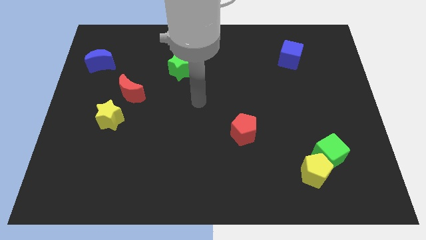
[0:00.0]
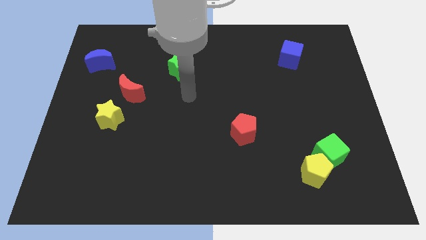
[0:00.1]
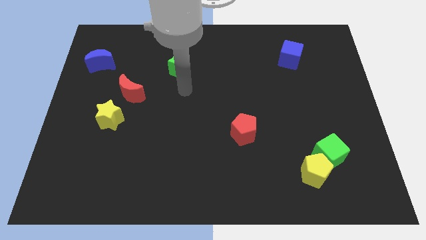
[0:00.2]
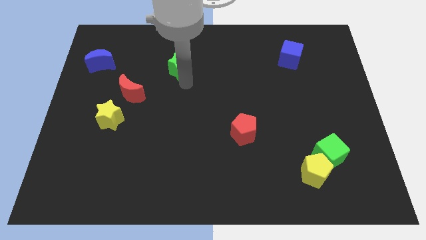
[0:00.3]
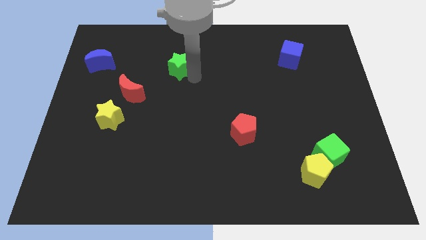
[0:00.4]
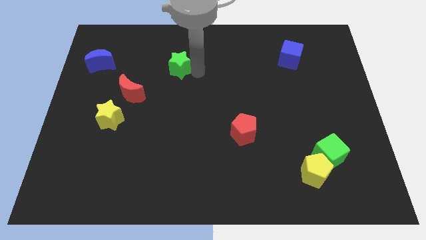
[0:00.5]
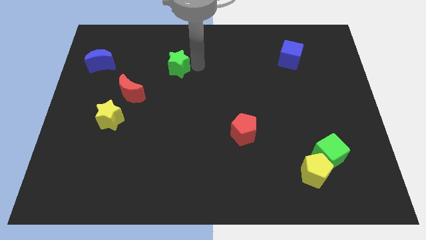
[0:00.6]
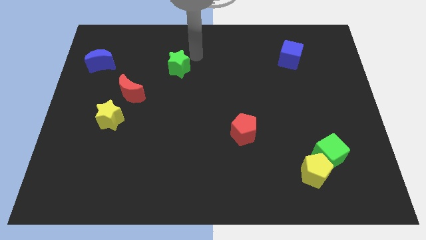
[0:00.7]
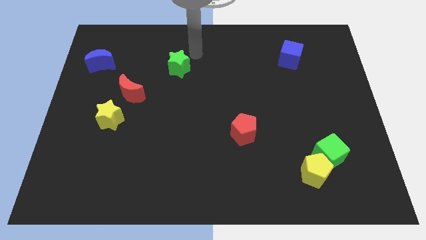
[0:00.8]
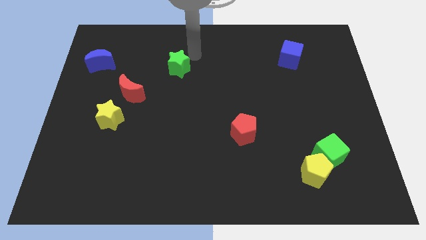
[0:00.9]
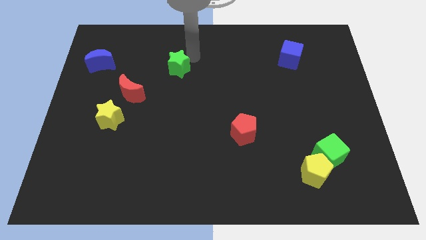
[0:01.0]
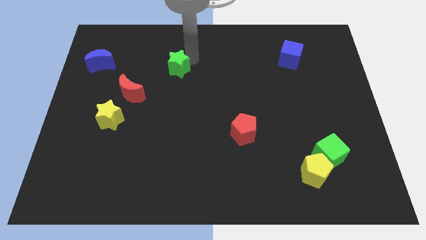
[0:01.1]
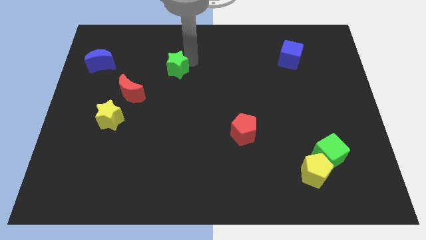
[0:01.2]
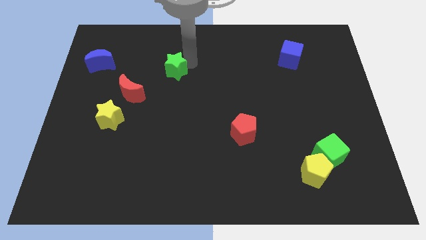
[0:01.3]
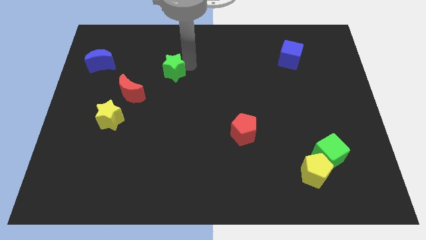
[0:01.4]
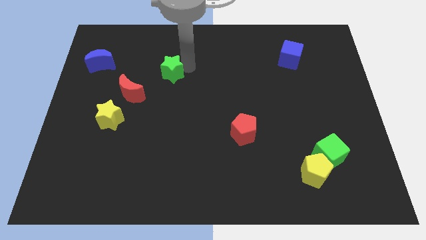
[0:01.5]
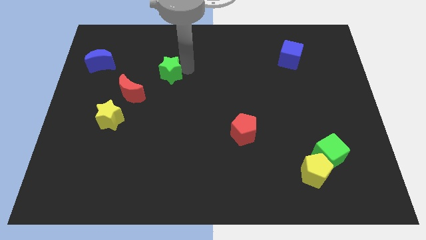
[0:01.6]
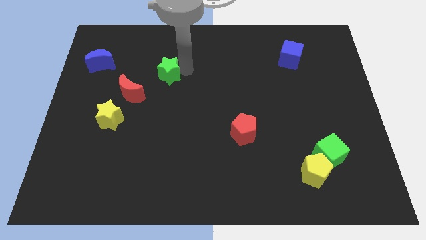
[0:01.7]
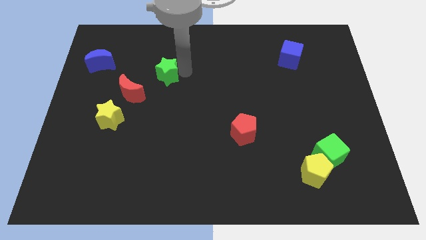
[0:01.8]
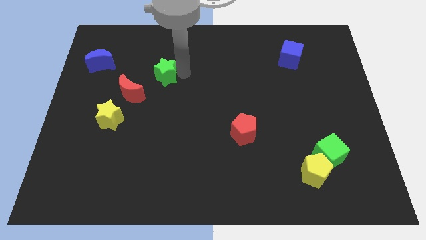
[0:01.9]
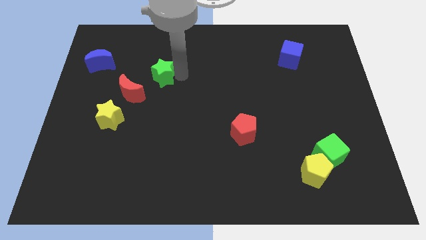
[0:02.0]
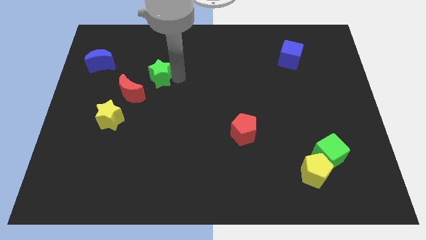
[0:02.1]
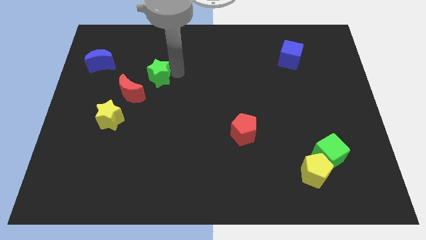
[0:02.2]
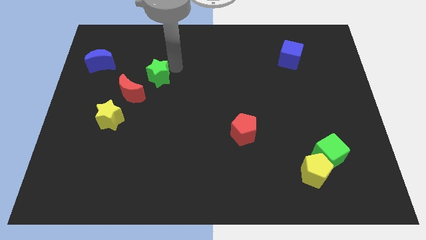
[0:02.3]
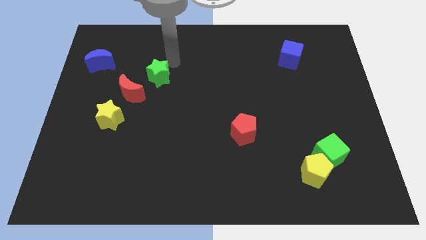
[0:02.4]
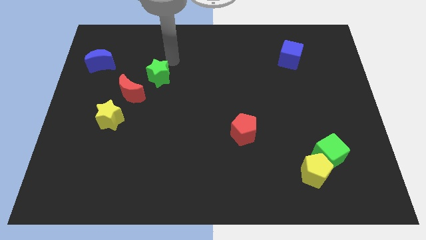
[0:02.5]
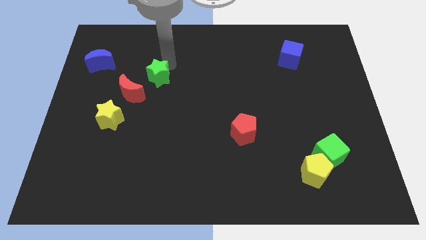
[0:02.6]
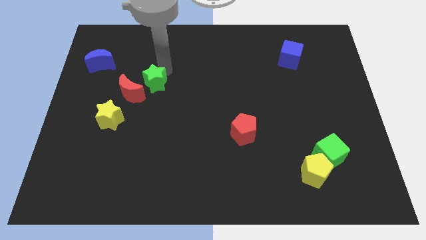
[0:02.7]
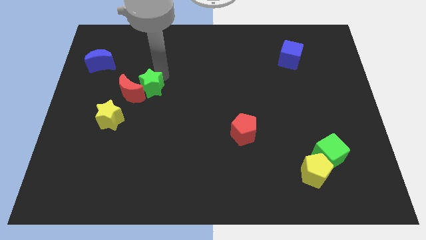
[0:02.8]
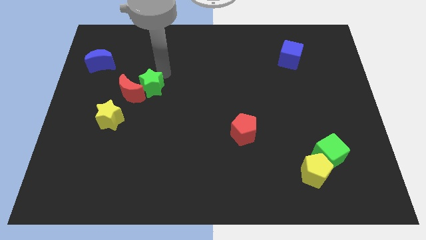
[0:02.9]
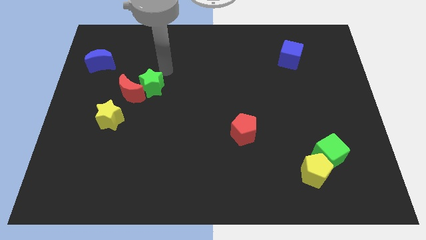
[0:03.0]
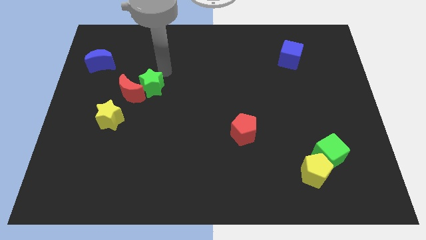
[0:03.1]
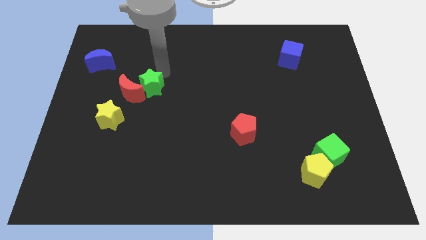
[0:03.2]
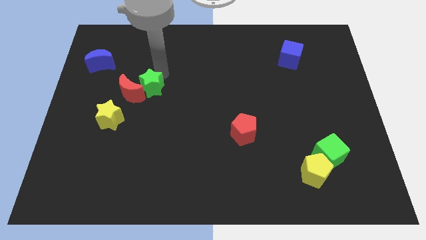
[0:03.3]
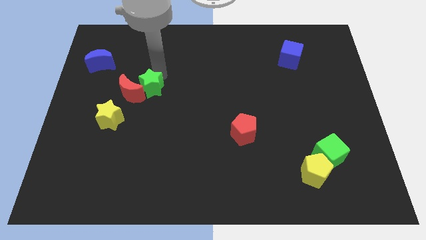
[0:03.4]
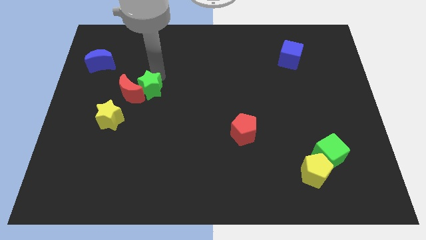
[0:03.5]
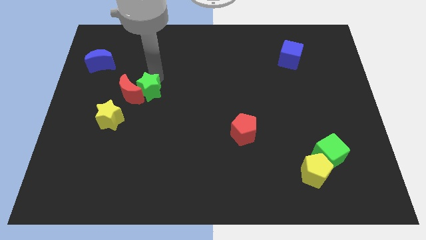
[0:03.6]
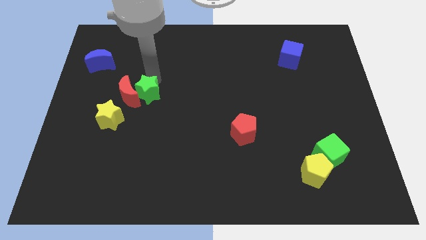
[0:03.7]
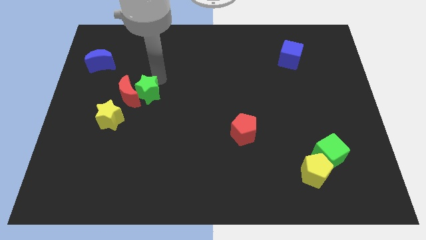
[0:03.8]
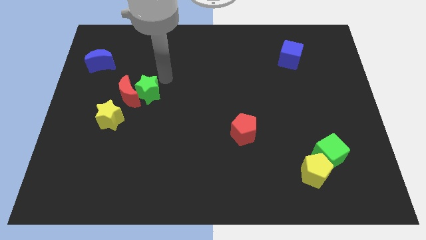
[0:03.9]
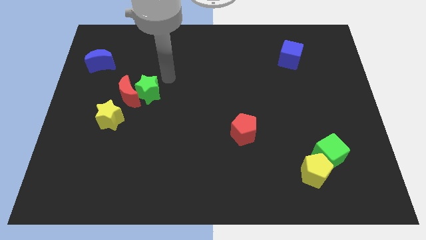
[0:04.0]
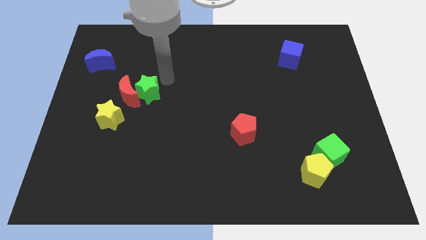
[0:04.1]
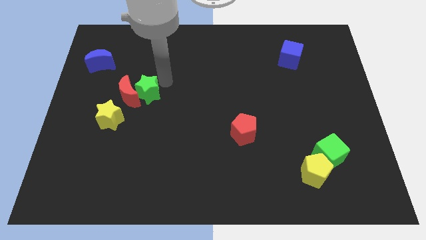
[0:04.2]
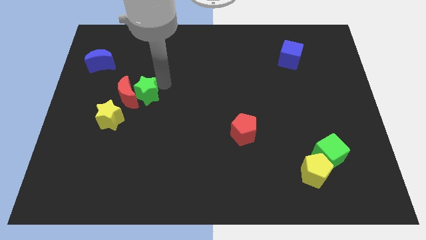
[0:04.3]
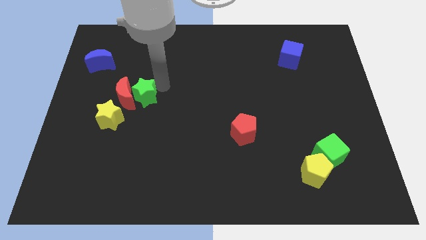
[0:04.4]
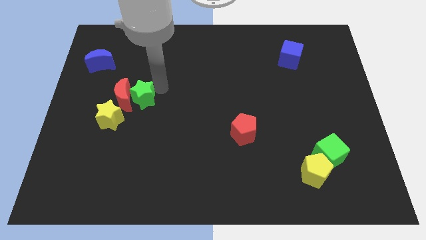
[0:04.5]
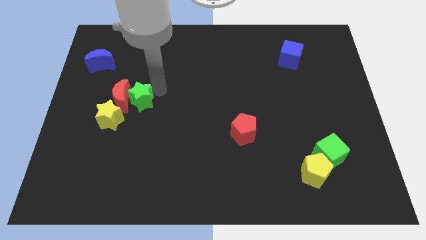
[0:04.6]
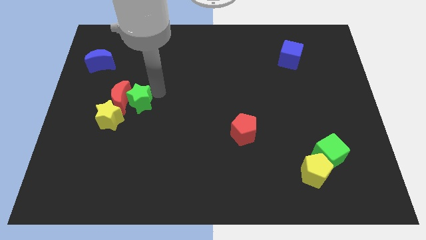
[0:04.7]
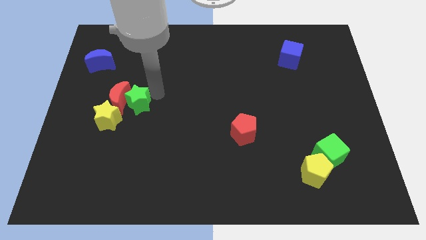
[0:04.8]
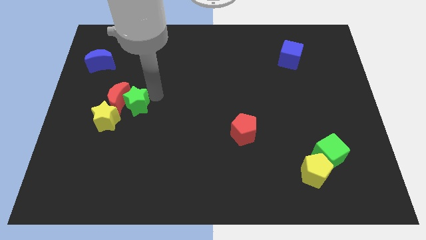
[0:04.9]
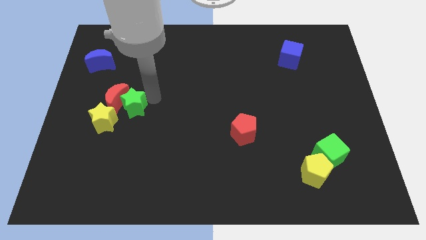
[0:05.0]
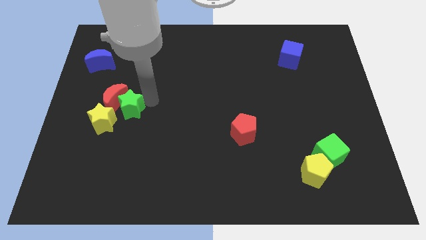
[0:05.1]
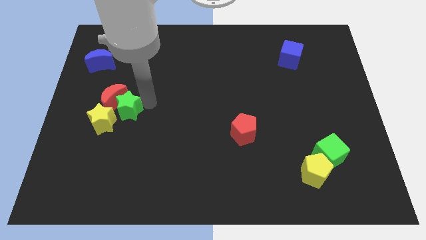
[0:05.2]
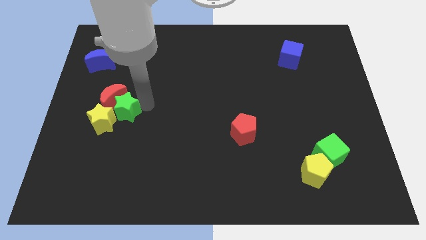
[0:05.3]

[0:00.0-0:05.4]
move the green star next to the yellow star

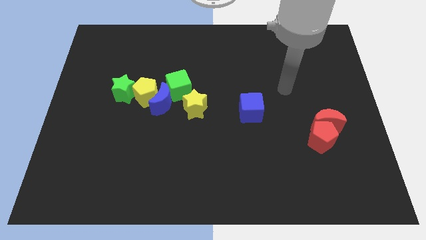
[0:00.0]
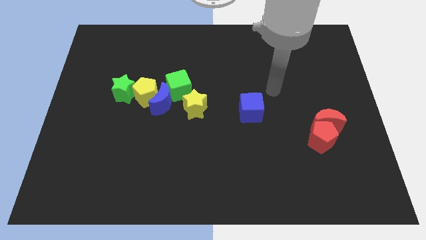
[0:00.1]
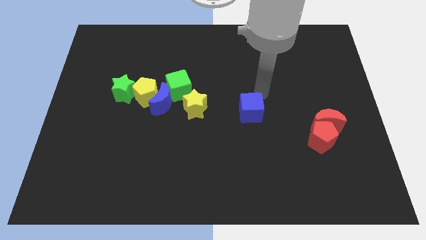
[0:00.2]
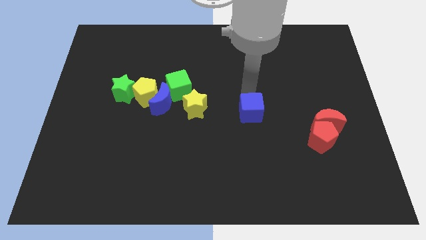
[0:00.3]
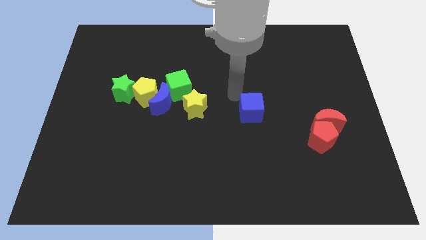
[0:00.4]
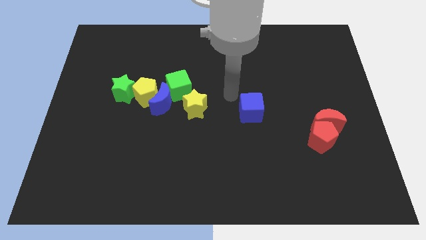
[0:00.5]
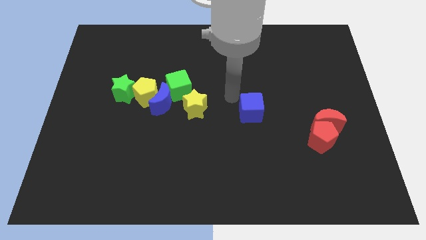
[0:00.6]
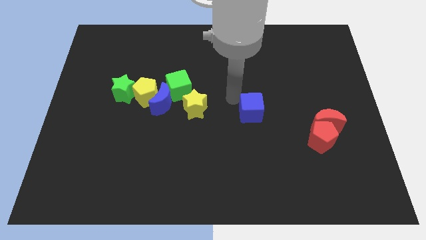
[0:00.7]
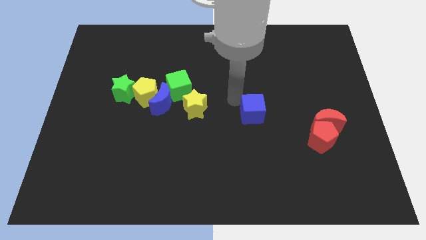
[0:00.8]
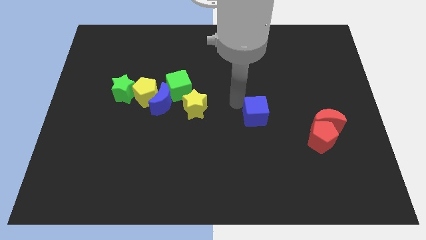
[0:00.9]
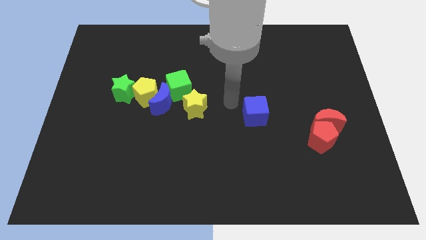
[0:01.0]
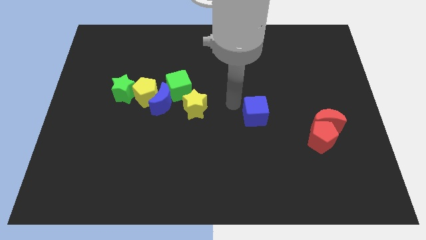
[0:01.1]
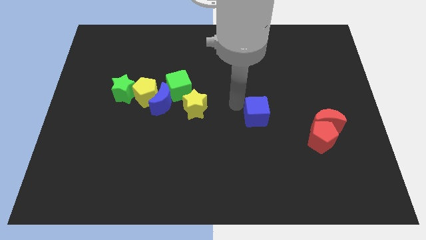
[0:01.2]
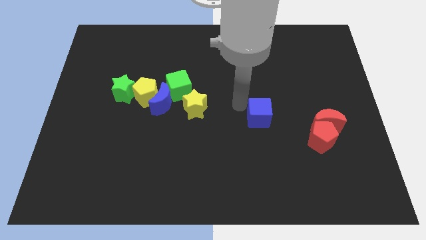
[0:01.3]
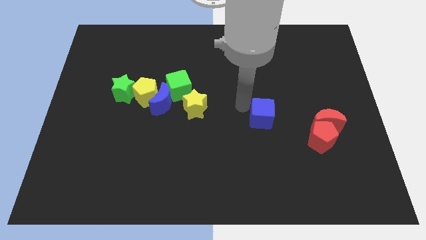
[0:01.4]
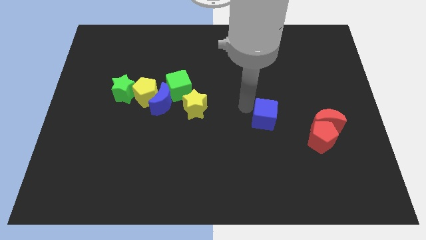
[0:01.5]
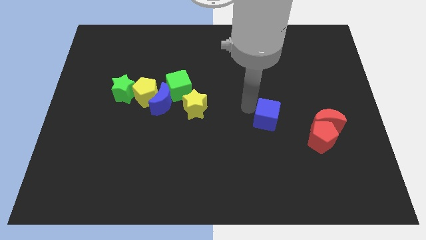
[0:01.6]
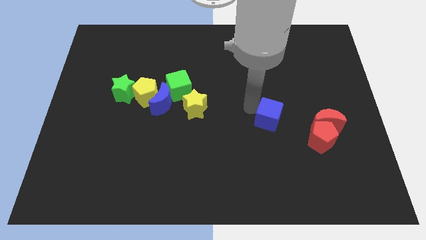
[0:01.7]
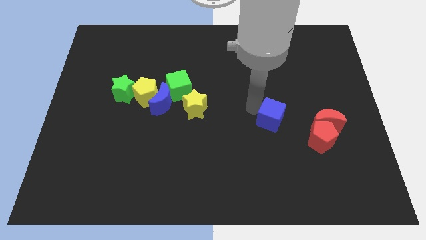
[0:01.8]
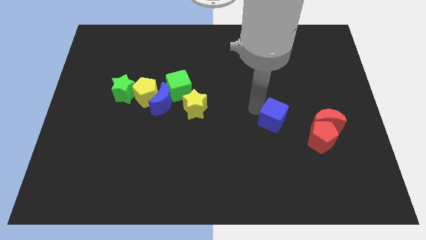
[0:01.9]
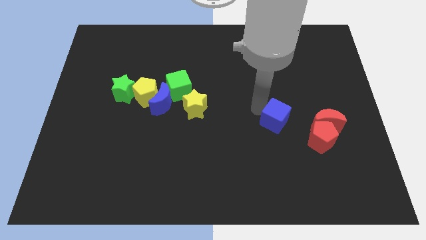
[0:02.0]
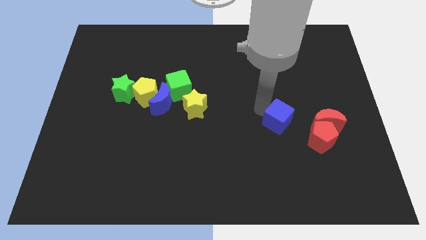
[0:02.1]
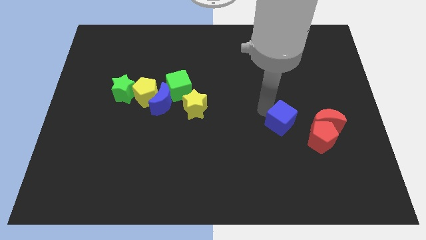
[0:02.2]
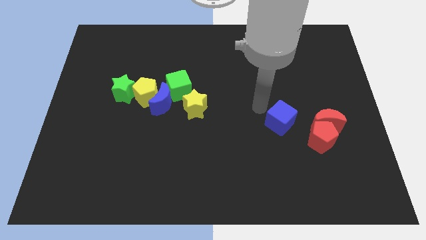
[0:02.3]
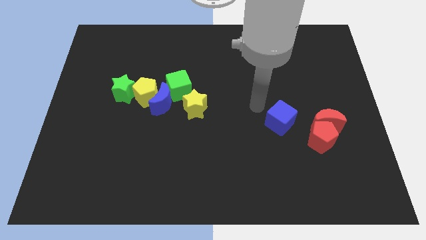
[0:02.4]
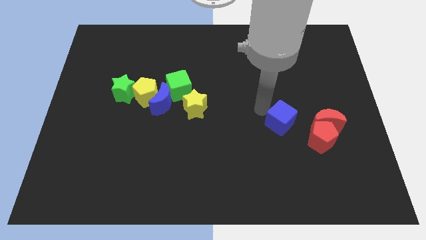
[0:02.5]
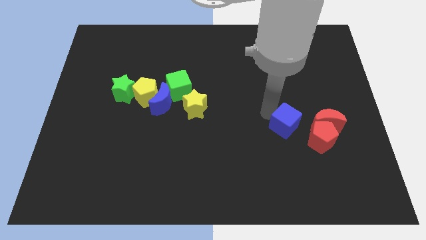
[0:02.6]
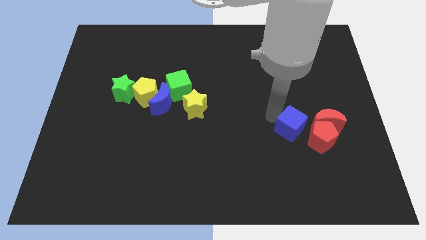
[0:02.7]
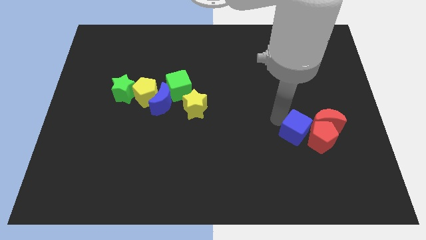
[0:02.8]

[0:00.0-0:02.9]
slide the blue cube close to the red pentagon
